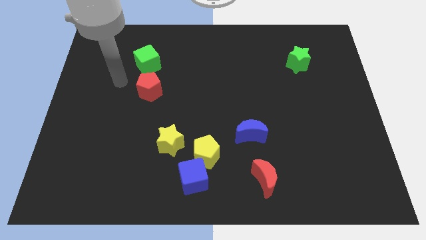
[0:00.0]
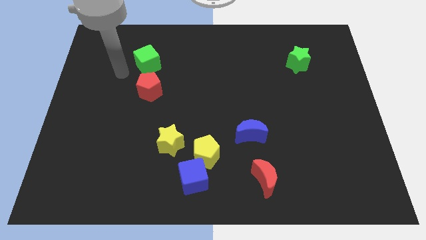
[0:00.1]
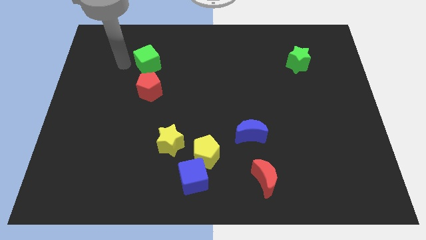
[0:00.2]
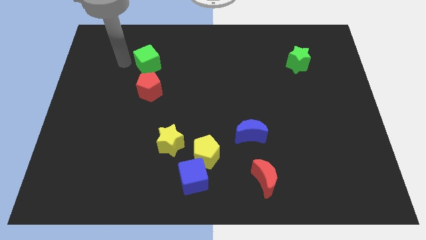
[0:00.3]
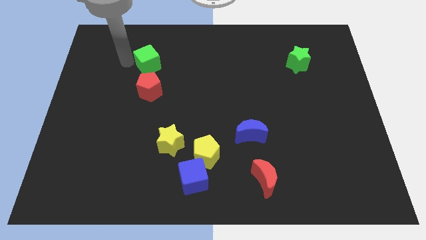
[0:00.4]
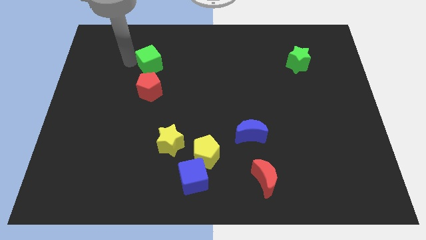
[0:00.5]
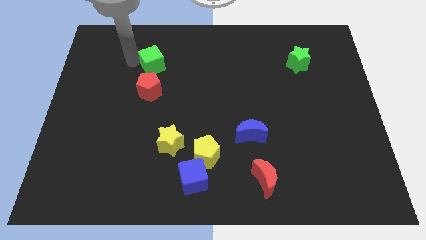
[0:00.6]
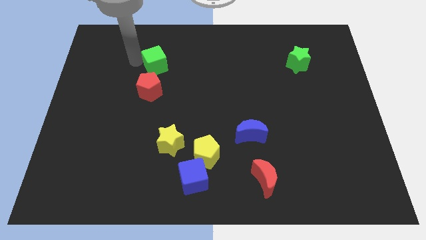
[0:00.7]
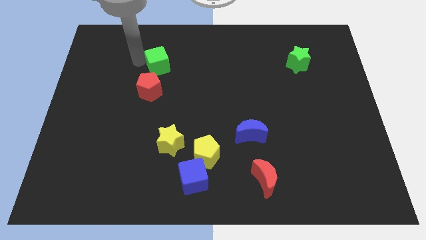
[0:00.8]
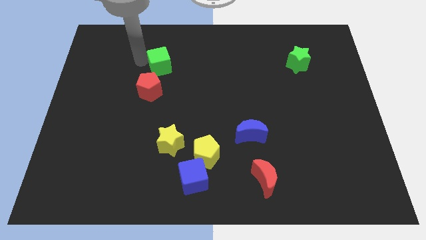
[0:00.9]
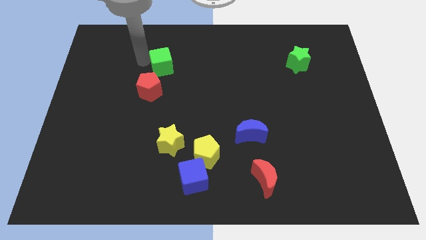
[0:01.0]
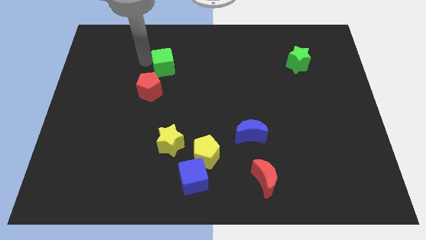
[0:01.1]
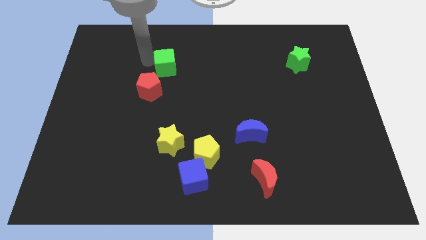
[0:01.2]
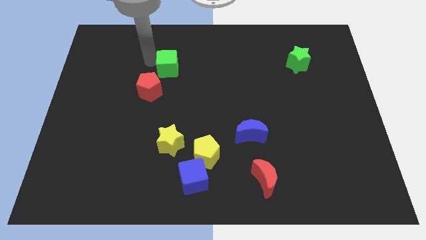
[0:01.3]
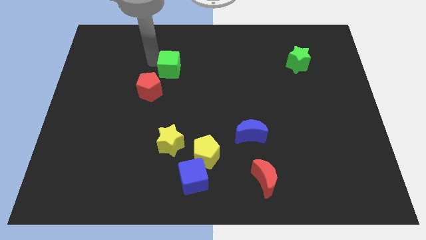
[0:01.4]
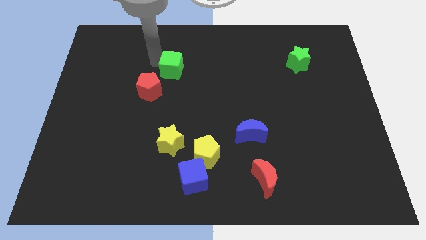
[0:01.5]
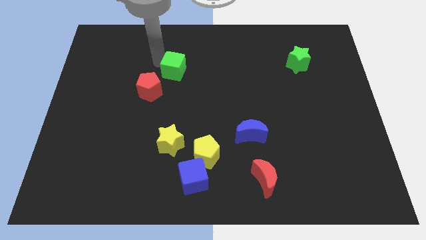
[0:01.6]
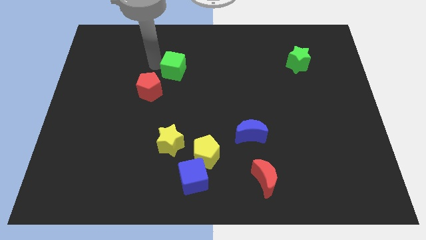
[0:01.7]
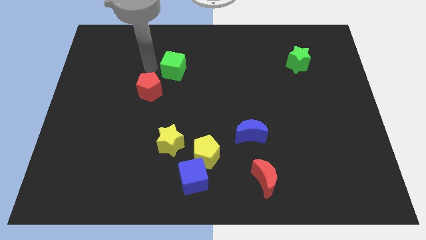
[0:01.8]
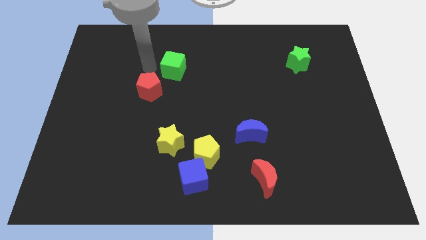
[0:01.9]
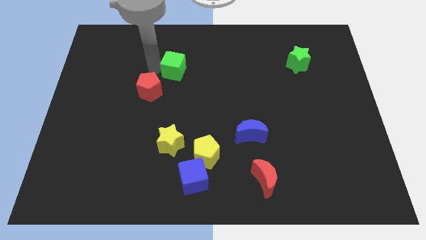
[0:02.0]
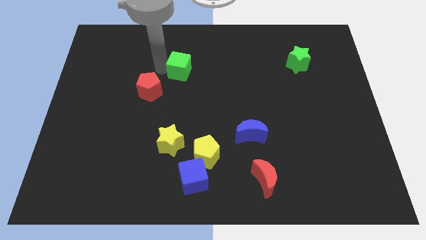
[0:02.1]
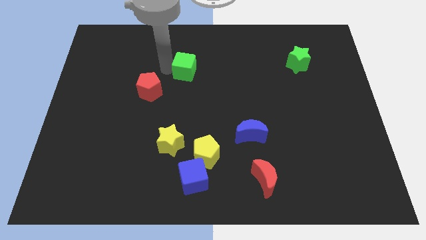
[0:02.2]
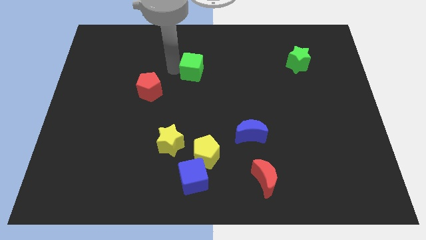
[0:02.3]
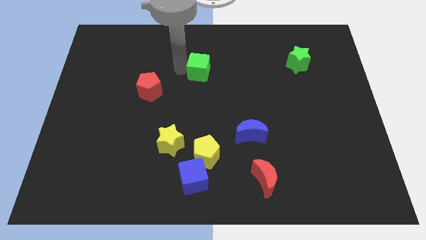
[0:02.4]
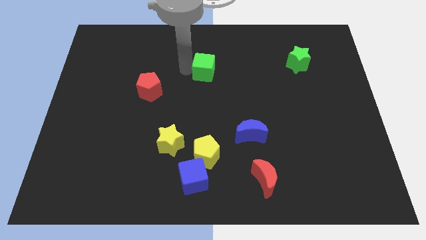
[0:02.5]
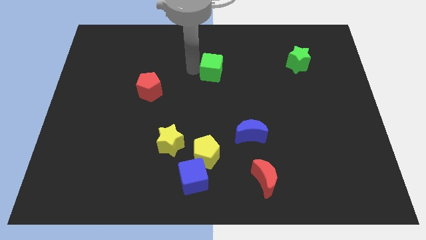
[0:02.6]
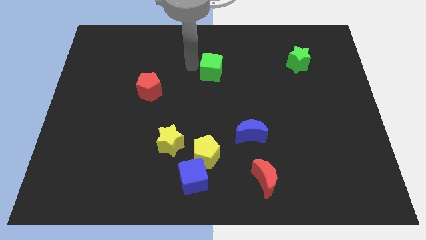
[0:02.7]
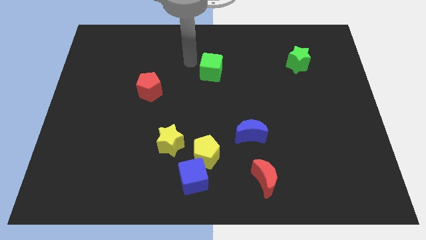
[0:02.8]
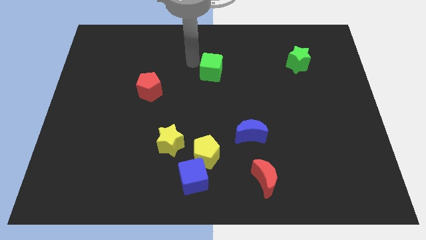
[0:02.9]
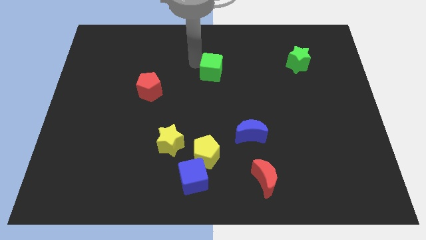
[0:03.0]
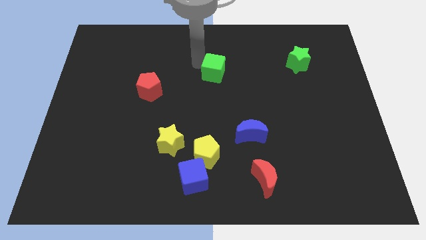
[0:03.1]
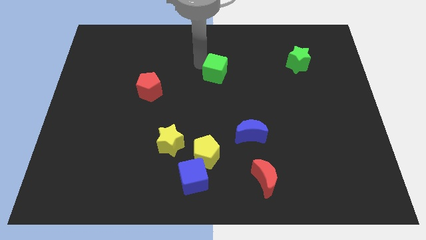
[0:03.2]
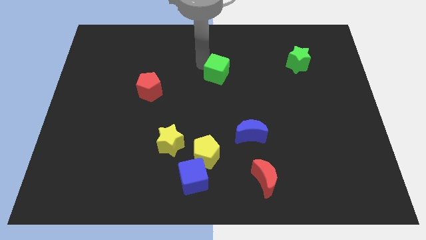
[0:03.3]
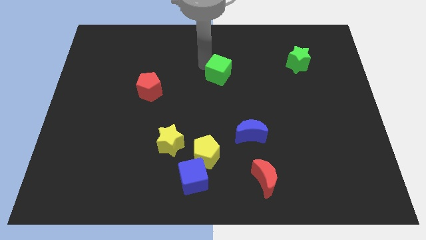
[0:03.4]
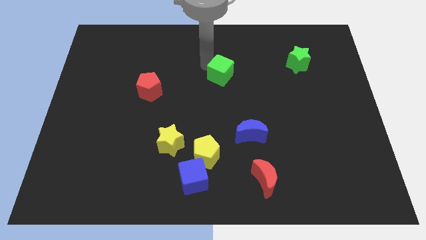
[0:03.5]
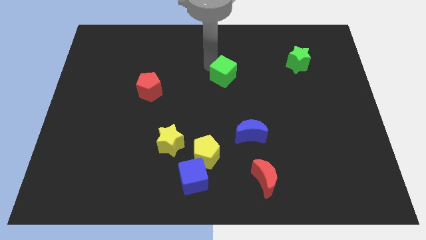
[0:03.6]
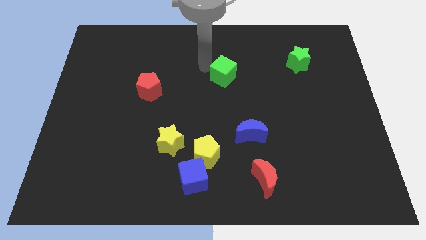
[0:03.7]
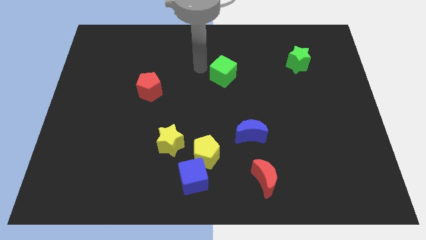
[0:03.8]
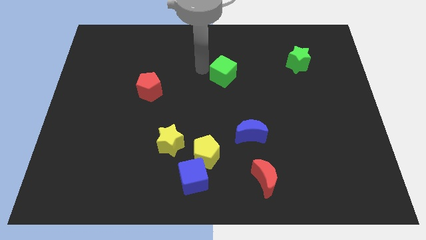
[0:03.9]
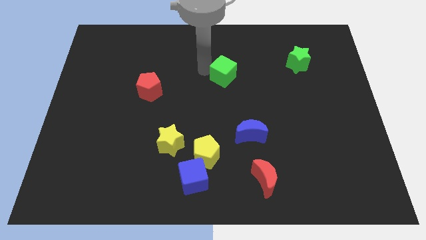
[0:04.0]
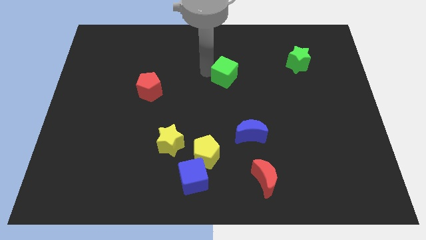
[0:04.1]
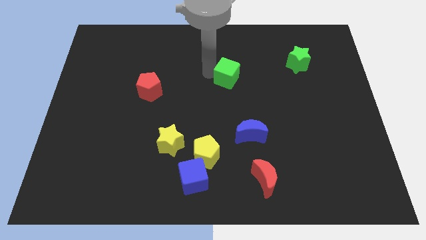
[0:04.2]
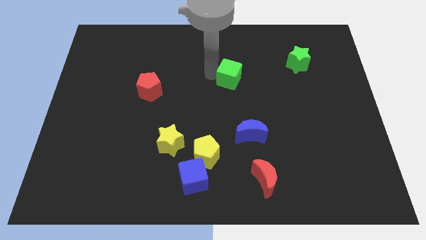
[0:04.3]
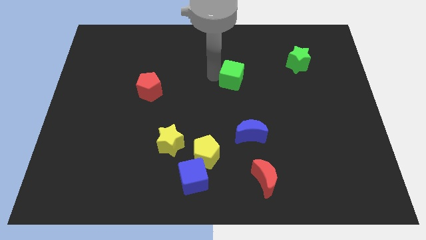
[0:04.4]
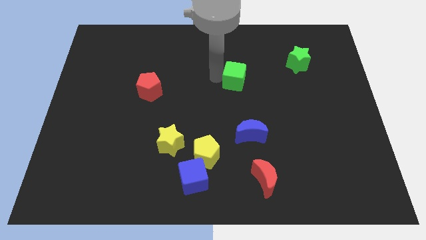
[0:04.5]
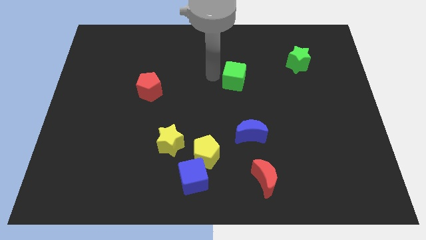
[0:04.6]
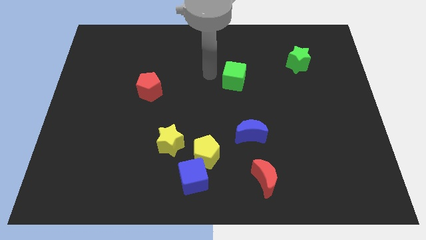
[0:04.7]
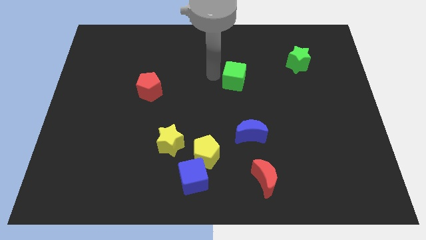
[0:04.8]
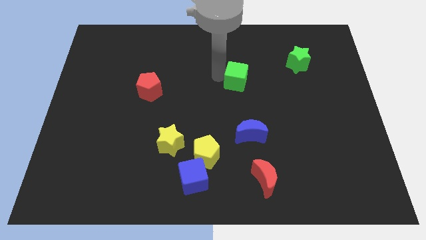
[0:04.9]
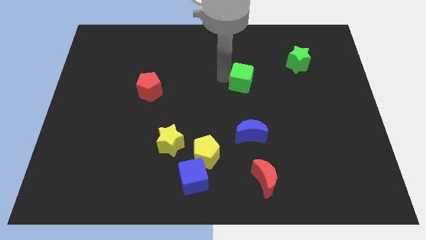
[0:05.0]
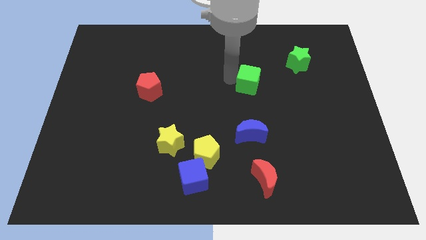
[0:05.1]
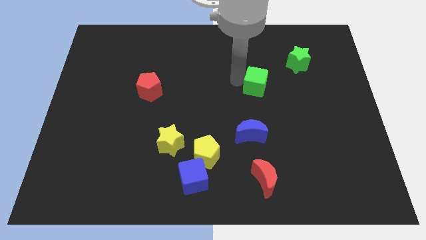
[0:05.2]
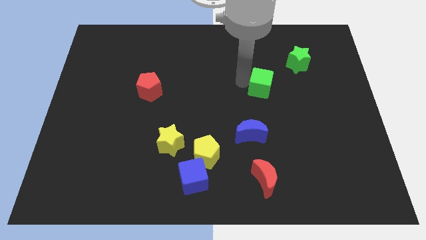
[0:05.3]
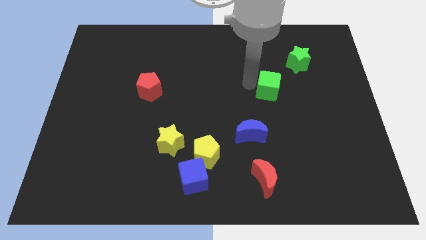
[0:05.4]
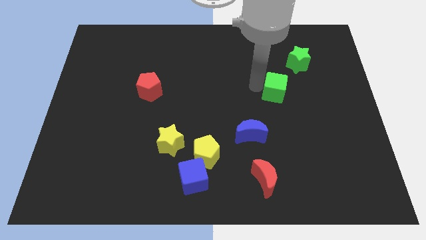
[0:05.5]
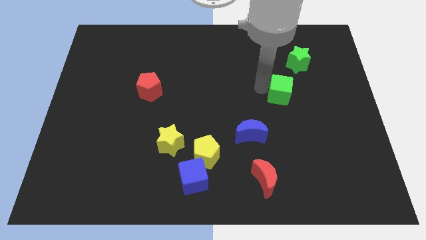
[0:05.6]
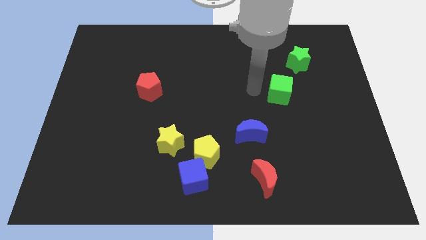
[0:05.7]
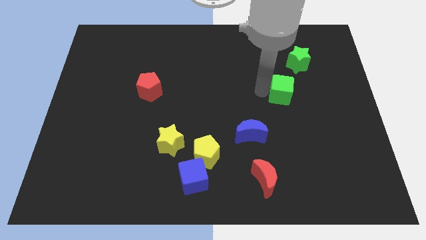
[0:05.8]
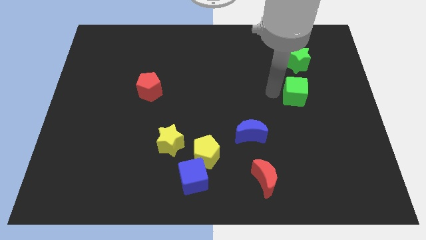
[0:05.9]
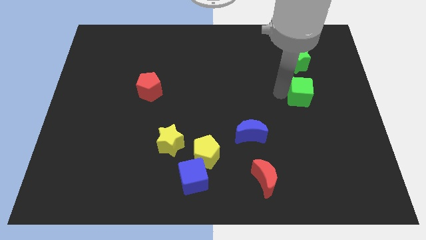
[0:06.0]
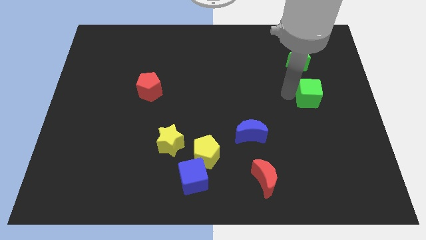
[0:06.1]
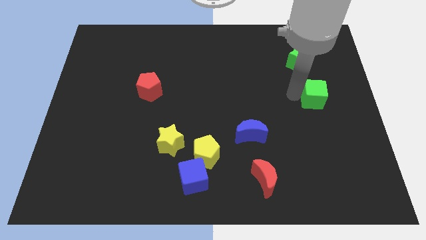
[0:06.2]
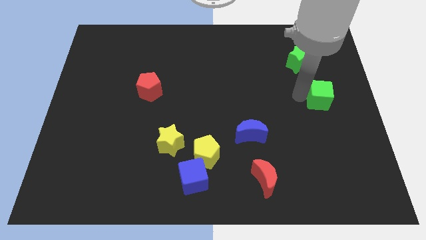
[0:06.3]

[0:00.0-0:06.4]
put the green cube to the center right

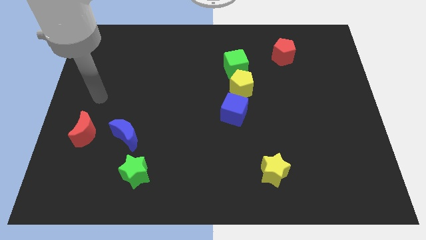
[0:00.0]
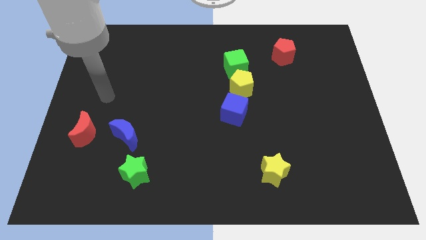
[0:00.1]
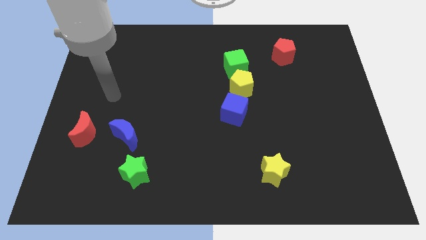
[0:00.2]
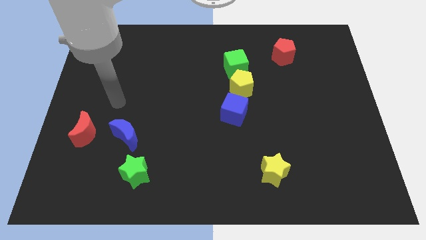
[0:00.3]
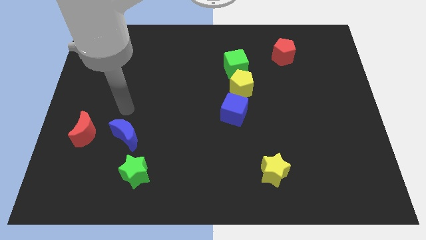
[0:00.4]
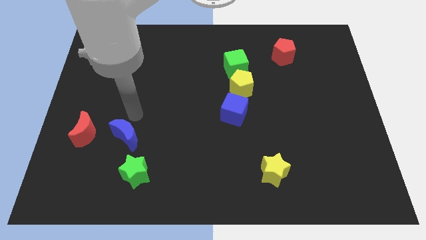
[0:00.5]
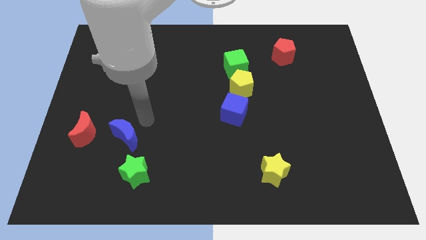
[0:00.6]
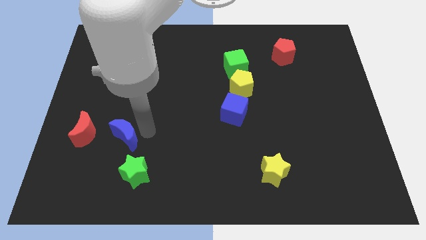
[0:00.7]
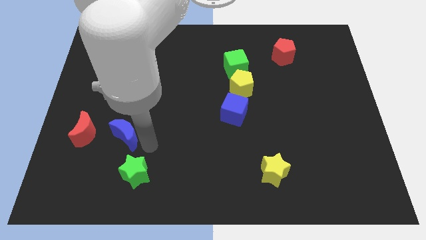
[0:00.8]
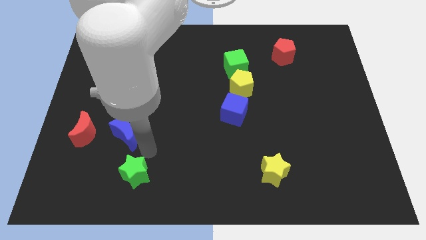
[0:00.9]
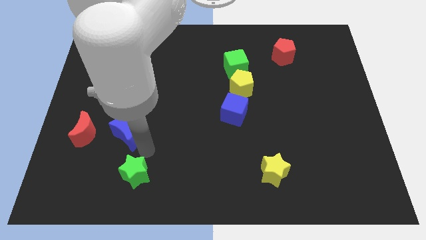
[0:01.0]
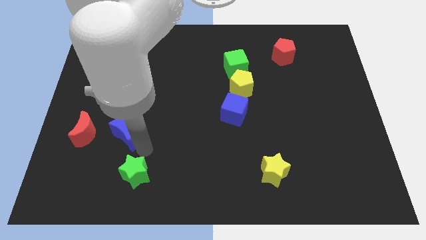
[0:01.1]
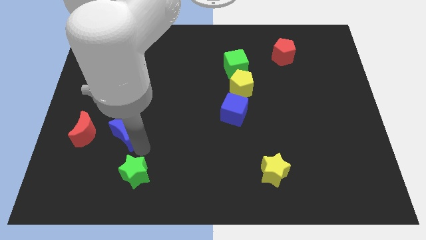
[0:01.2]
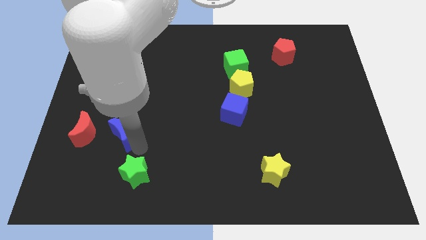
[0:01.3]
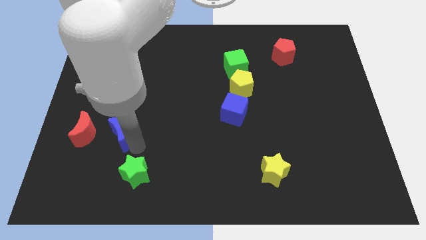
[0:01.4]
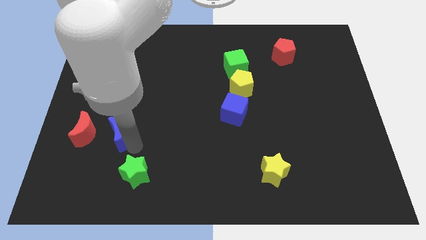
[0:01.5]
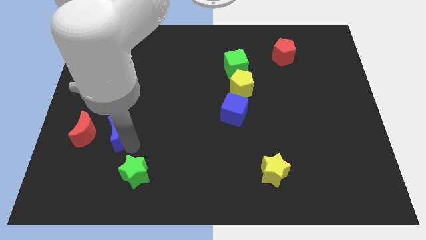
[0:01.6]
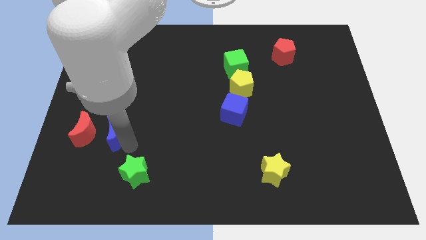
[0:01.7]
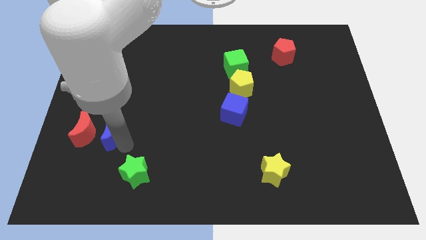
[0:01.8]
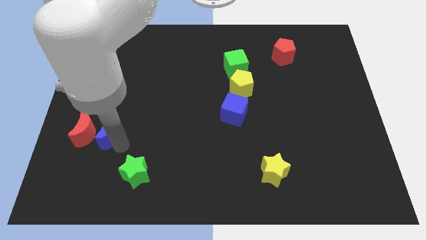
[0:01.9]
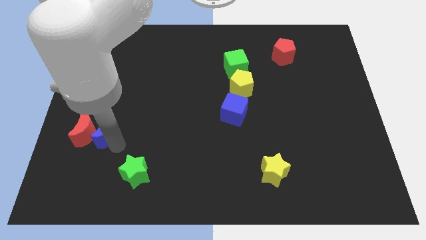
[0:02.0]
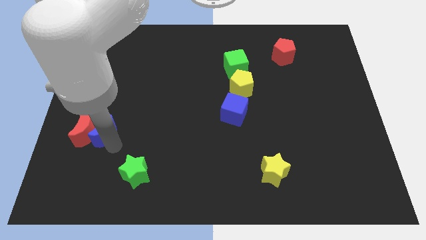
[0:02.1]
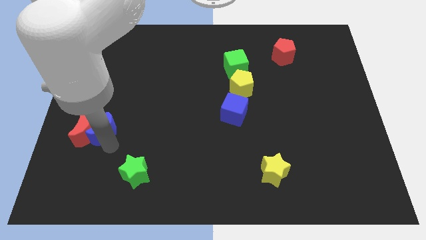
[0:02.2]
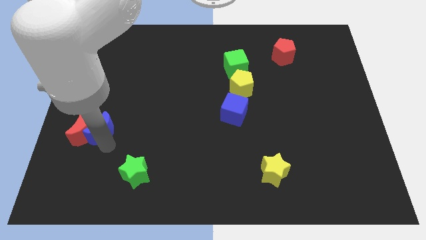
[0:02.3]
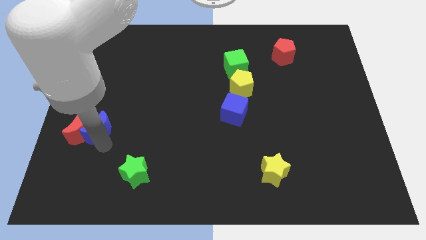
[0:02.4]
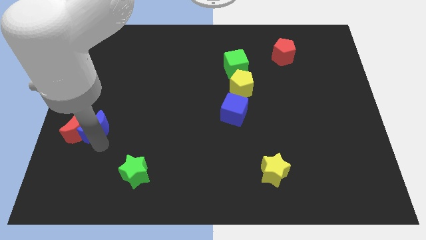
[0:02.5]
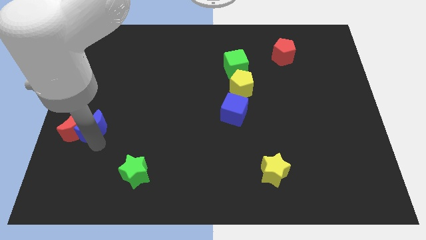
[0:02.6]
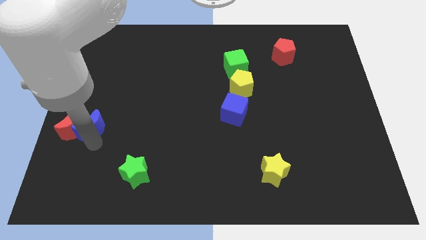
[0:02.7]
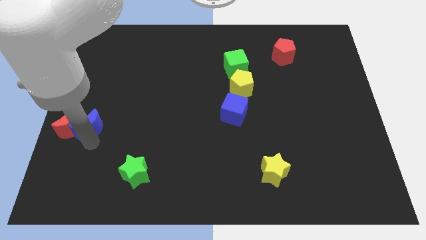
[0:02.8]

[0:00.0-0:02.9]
push the blue moon to the center left
